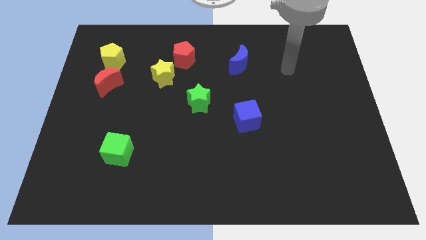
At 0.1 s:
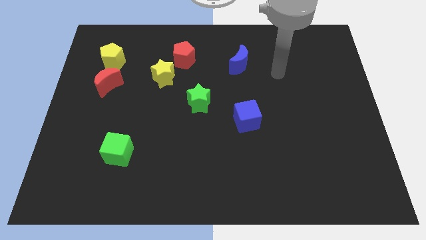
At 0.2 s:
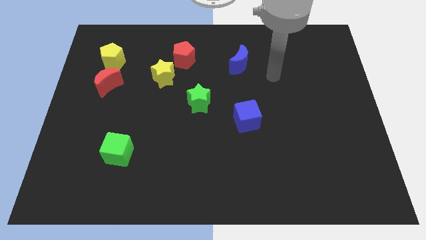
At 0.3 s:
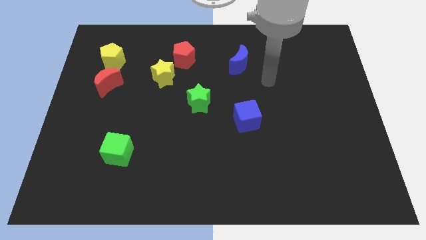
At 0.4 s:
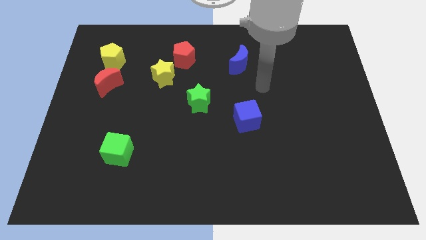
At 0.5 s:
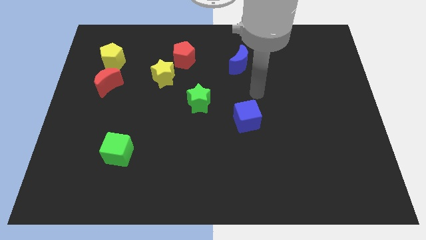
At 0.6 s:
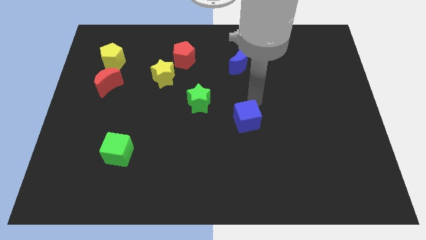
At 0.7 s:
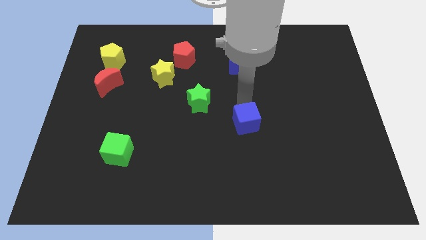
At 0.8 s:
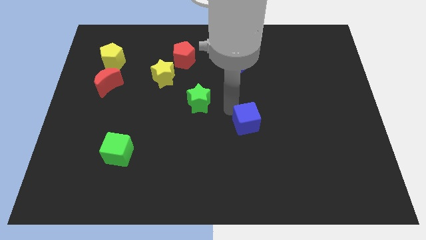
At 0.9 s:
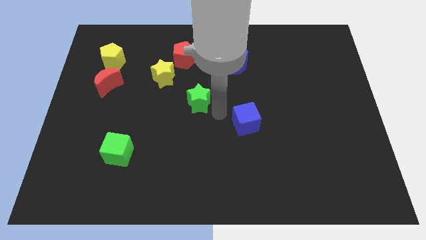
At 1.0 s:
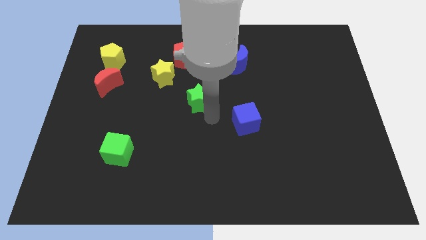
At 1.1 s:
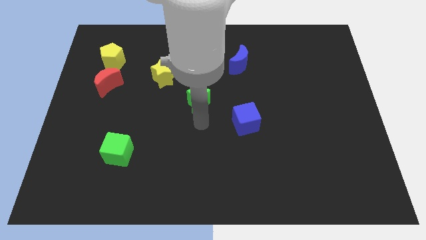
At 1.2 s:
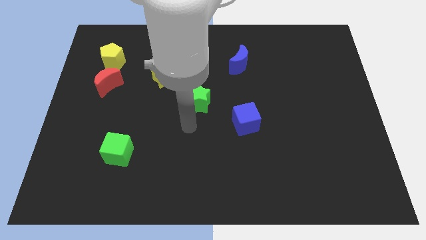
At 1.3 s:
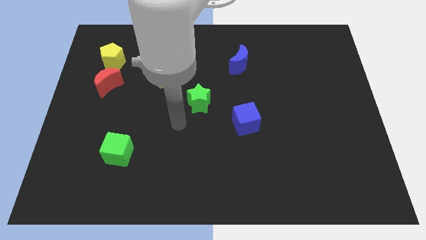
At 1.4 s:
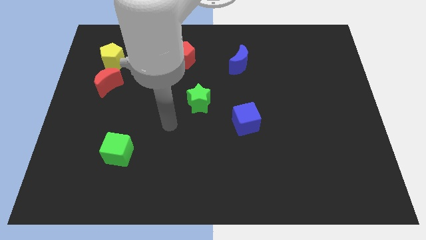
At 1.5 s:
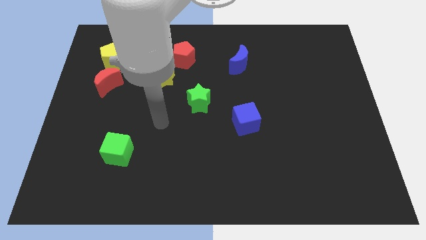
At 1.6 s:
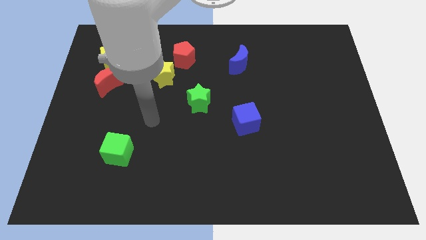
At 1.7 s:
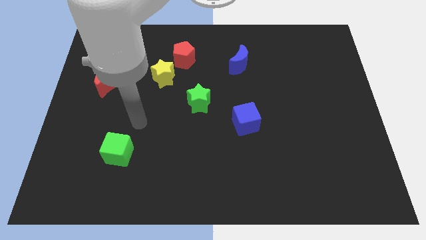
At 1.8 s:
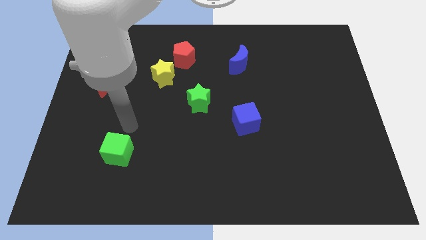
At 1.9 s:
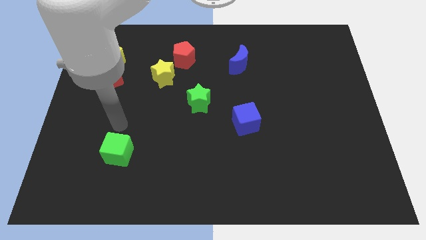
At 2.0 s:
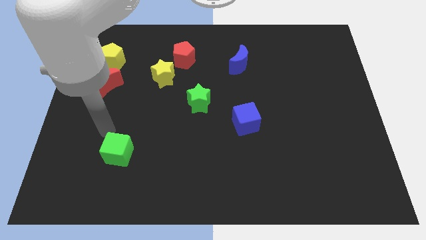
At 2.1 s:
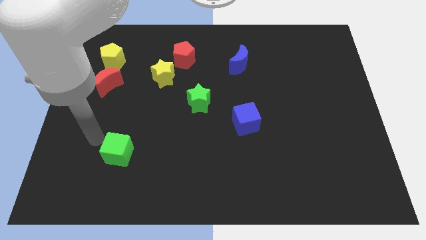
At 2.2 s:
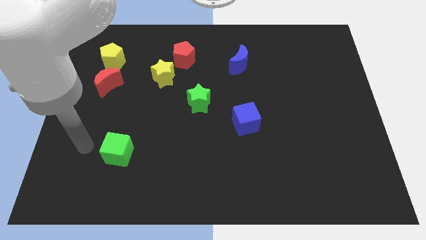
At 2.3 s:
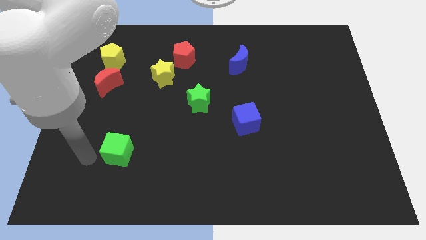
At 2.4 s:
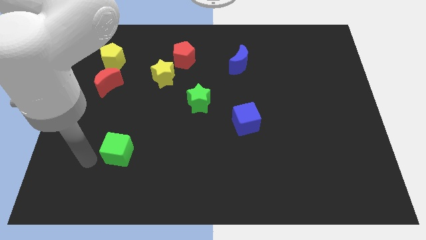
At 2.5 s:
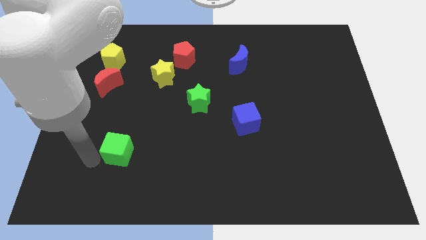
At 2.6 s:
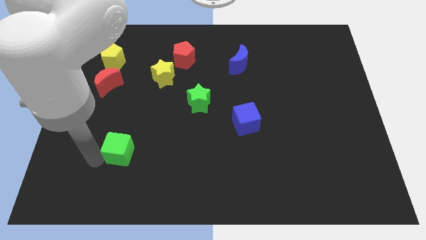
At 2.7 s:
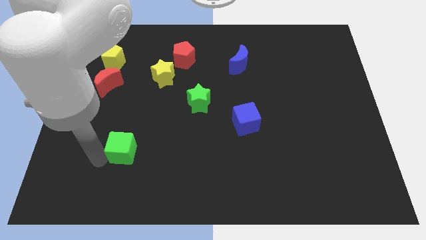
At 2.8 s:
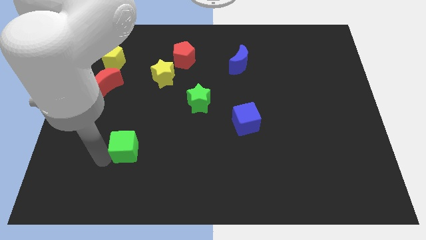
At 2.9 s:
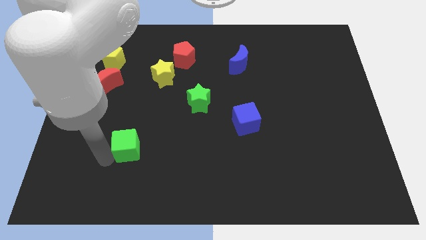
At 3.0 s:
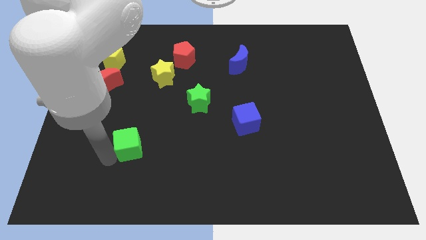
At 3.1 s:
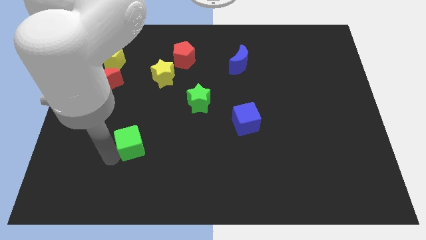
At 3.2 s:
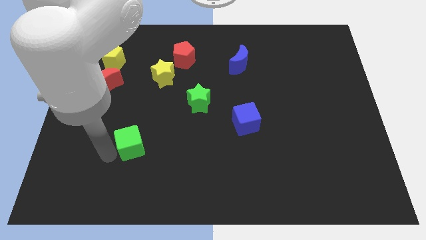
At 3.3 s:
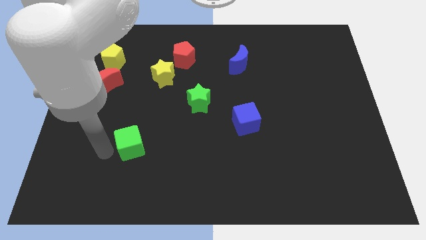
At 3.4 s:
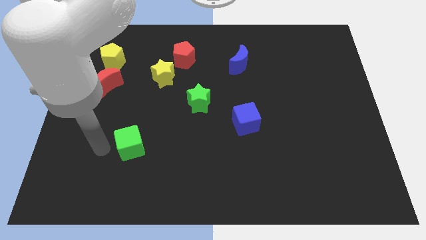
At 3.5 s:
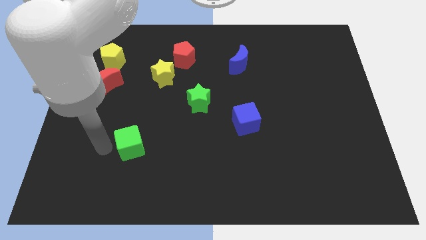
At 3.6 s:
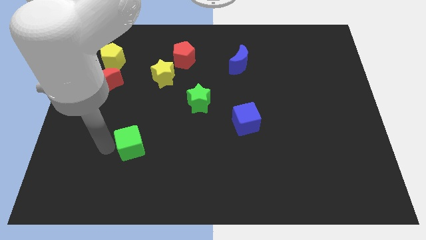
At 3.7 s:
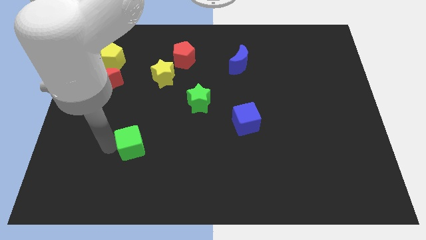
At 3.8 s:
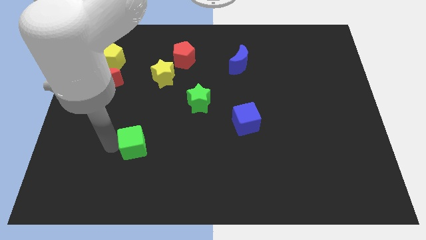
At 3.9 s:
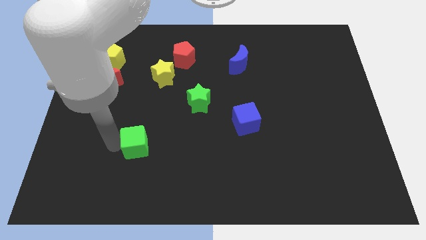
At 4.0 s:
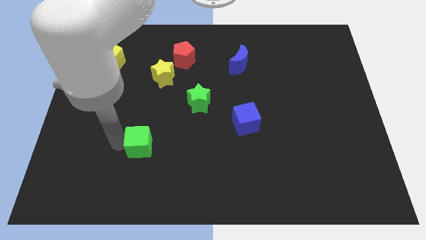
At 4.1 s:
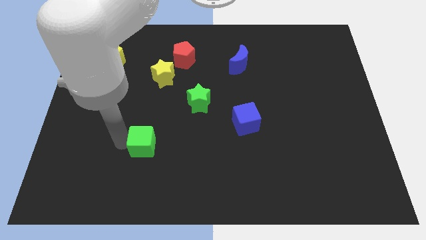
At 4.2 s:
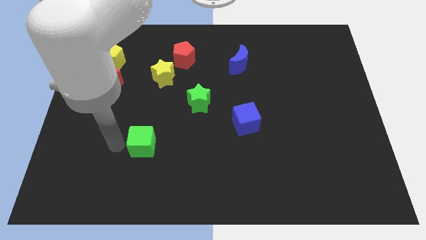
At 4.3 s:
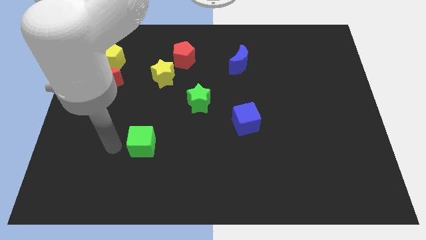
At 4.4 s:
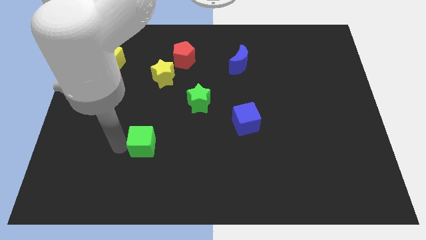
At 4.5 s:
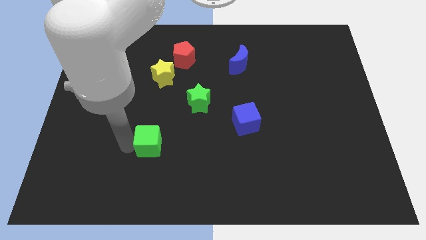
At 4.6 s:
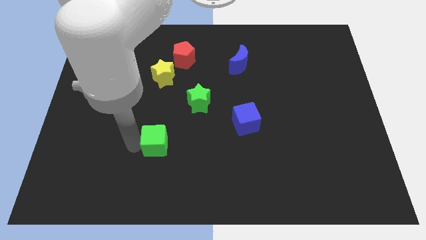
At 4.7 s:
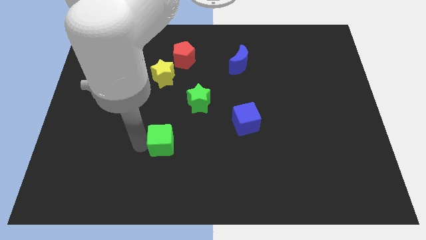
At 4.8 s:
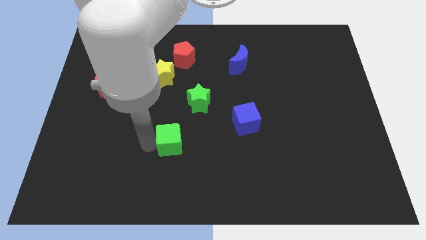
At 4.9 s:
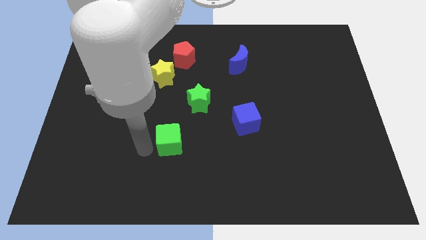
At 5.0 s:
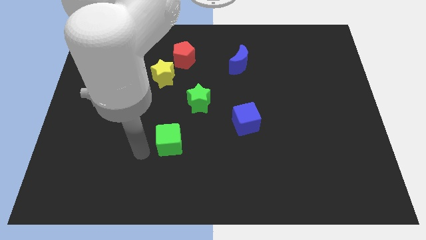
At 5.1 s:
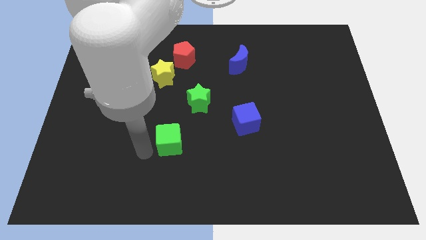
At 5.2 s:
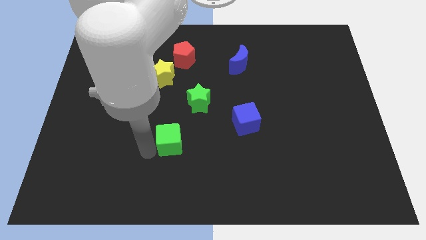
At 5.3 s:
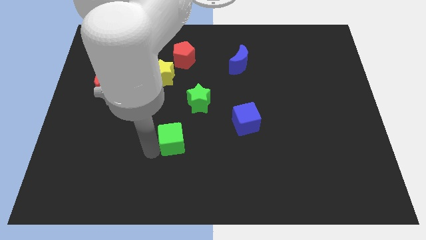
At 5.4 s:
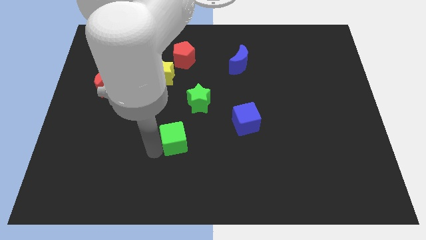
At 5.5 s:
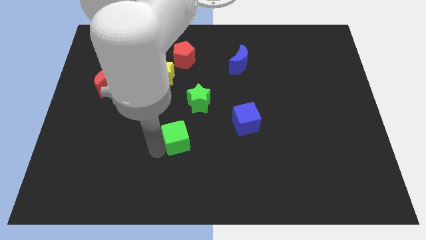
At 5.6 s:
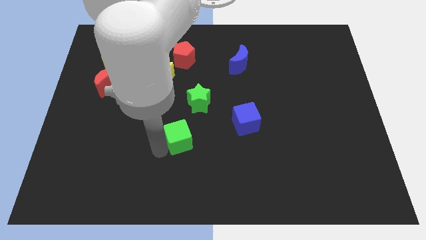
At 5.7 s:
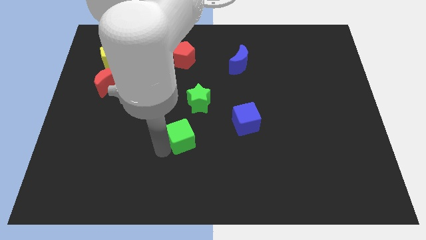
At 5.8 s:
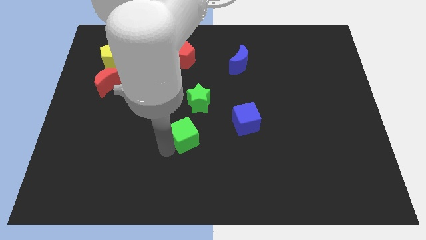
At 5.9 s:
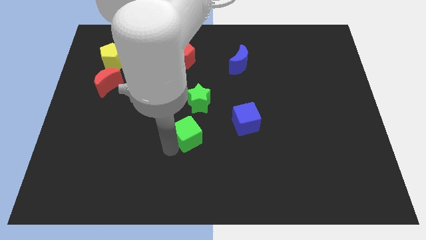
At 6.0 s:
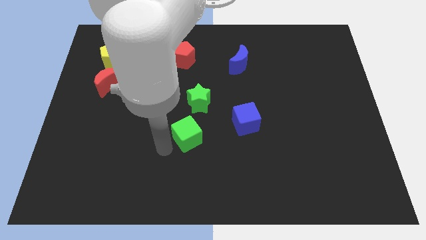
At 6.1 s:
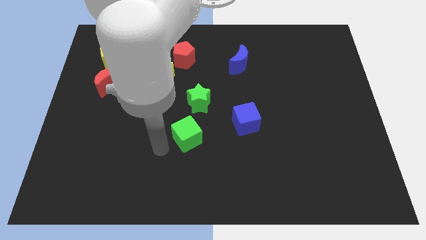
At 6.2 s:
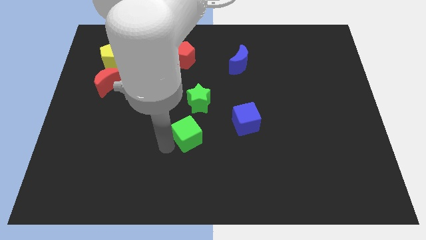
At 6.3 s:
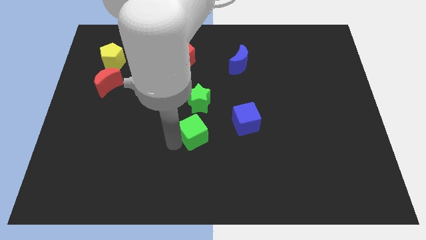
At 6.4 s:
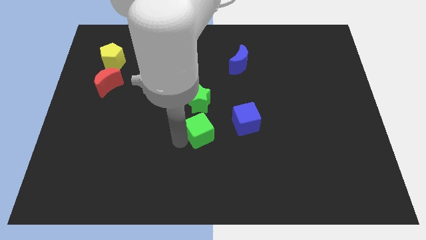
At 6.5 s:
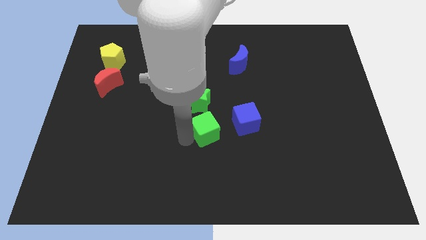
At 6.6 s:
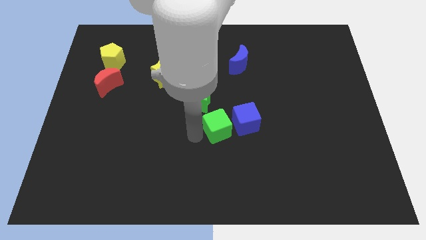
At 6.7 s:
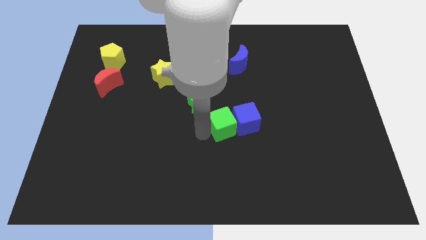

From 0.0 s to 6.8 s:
move the green cube towards the blue cube
